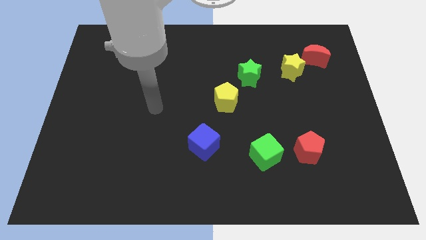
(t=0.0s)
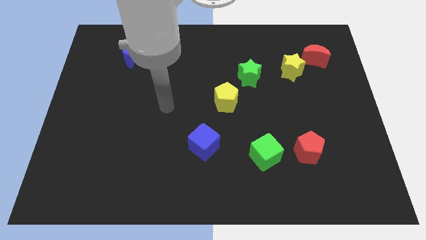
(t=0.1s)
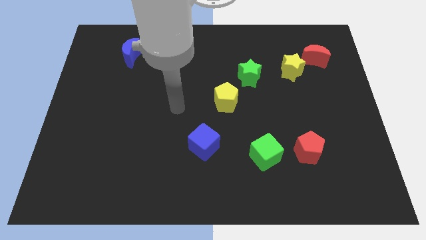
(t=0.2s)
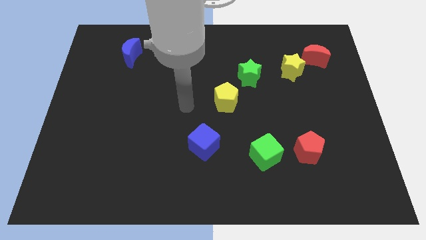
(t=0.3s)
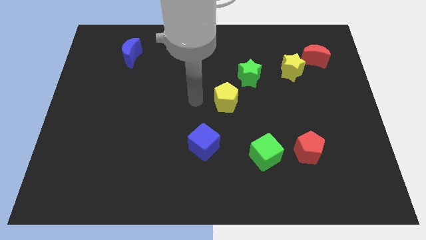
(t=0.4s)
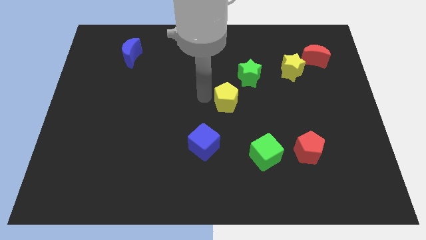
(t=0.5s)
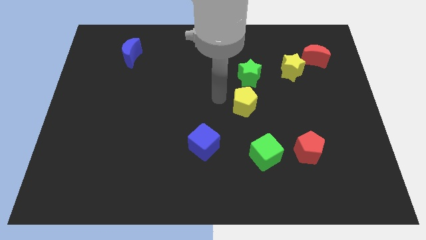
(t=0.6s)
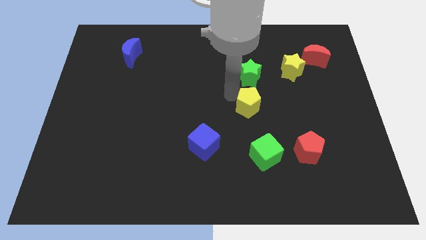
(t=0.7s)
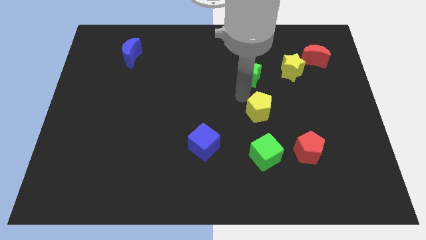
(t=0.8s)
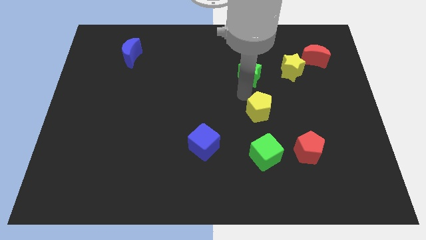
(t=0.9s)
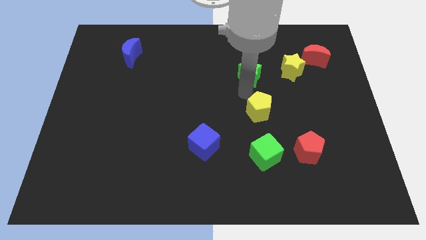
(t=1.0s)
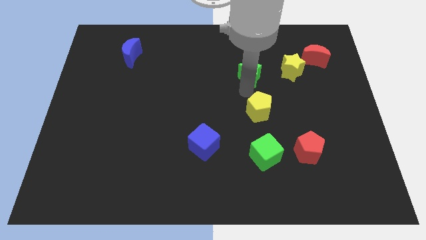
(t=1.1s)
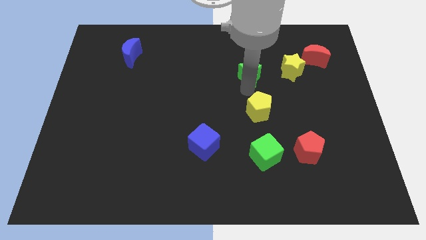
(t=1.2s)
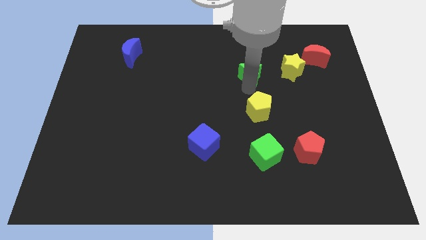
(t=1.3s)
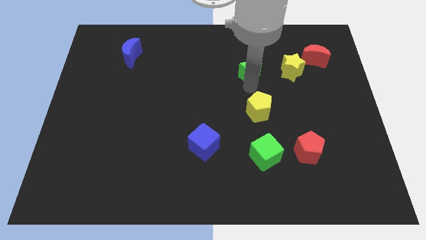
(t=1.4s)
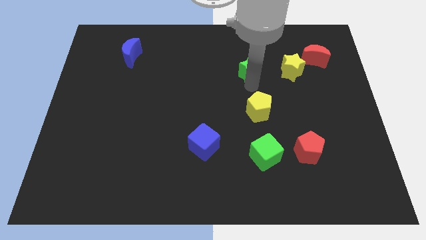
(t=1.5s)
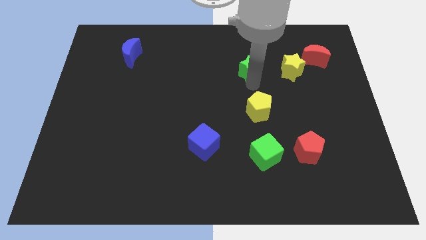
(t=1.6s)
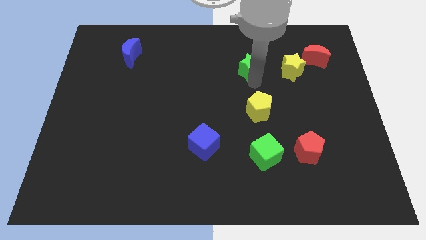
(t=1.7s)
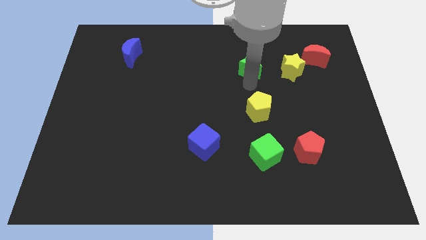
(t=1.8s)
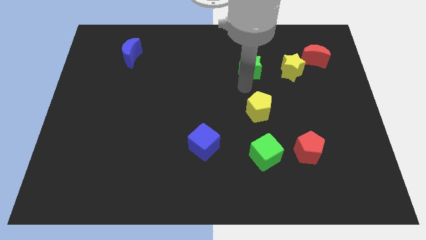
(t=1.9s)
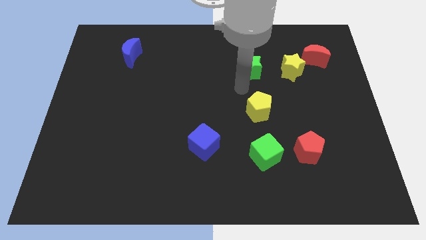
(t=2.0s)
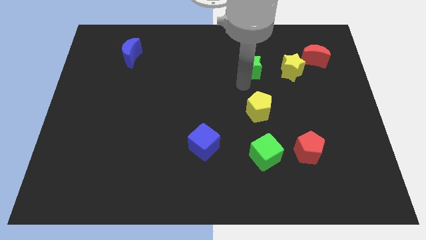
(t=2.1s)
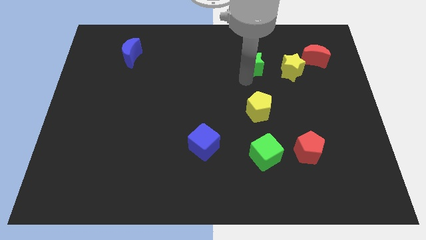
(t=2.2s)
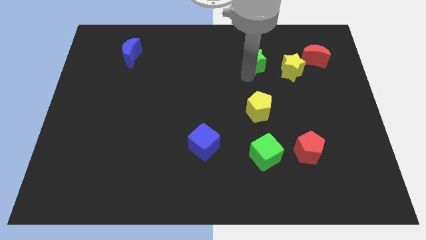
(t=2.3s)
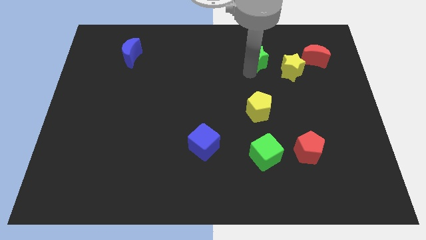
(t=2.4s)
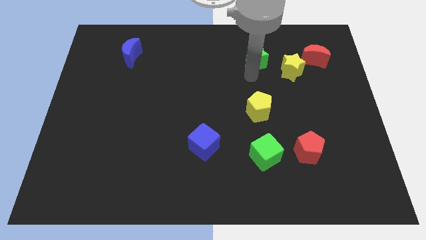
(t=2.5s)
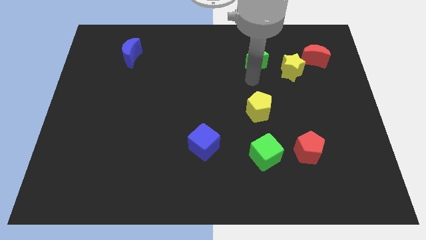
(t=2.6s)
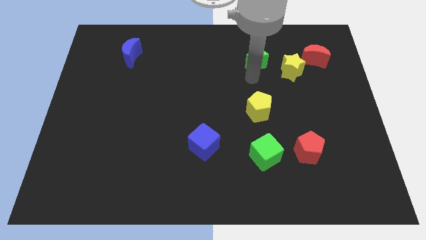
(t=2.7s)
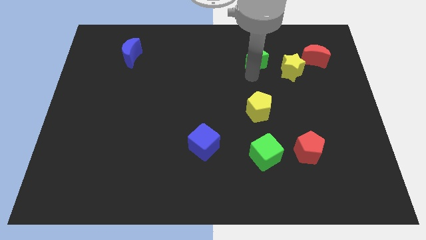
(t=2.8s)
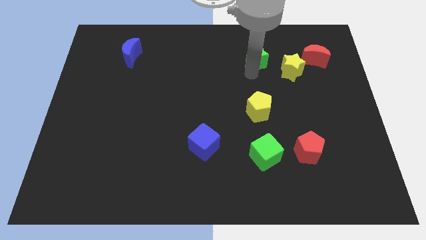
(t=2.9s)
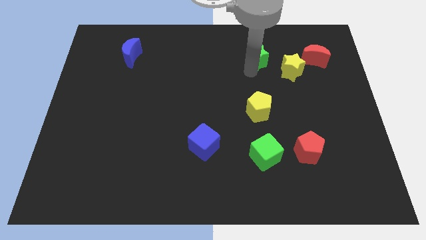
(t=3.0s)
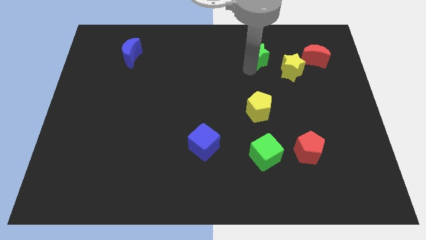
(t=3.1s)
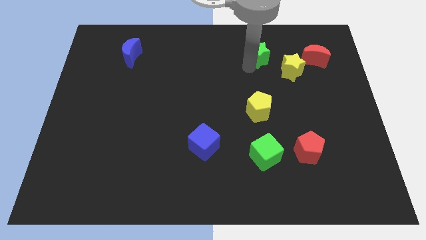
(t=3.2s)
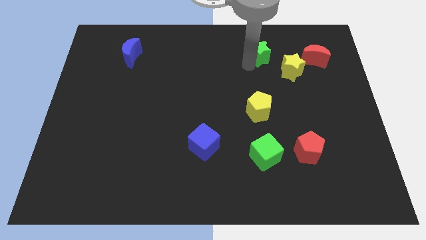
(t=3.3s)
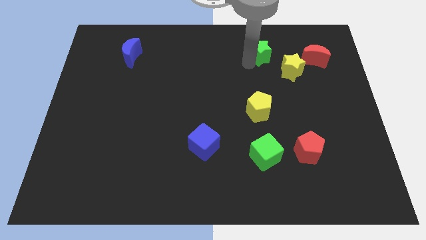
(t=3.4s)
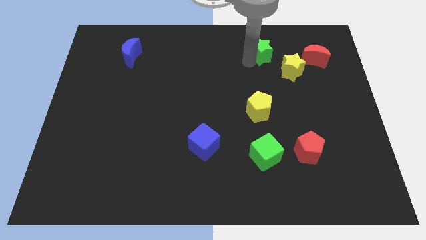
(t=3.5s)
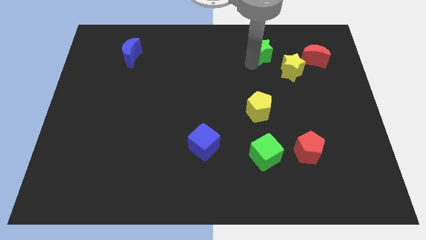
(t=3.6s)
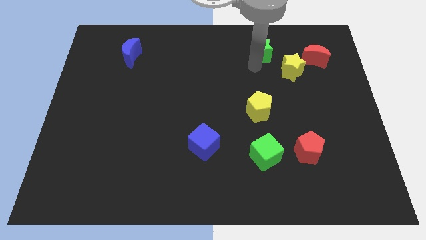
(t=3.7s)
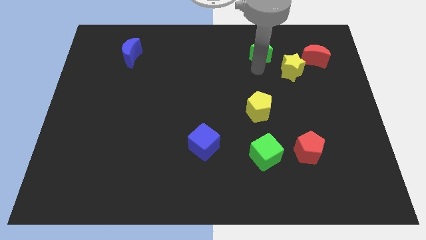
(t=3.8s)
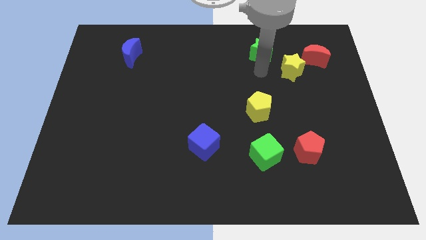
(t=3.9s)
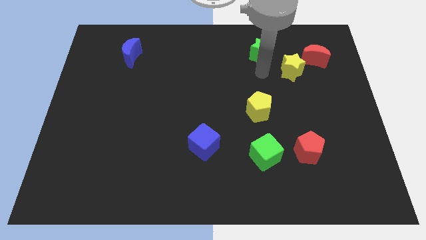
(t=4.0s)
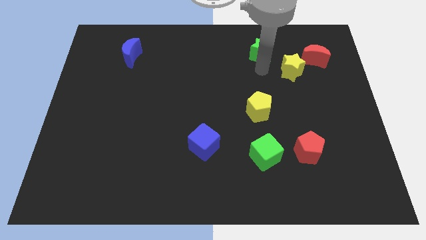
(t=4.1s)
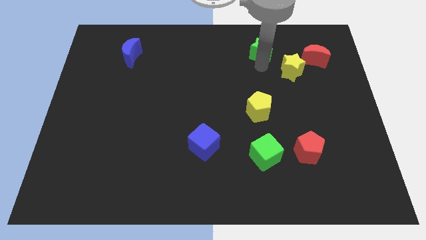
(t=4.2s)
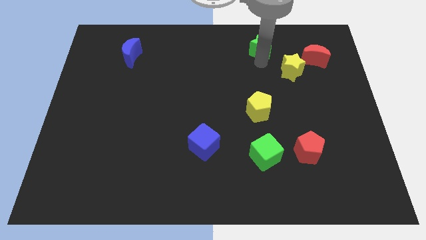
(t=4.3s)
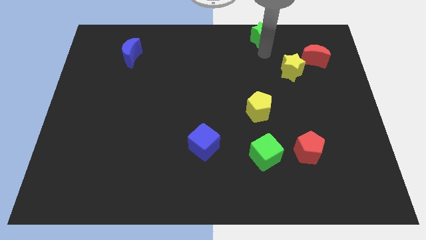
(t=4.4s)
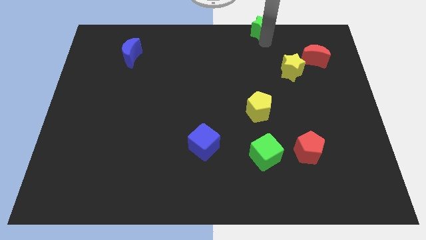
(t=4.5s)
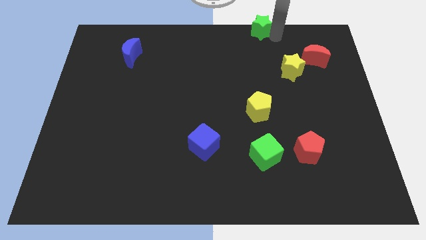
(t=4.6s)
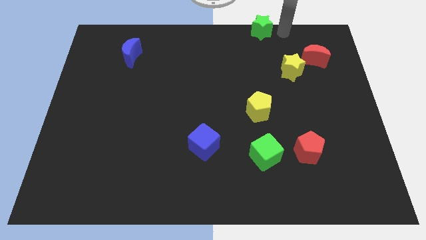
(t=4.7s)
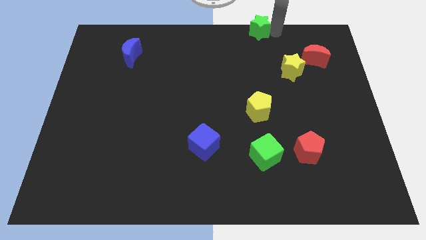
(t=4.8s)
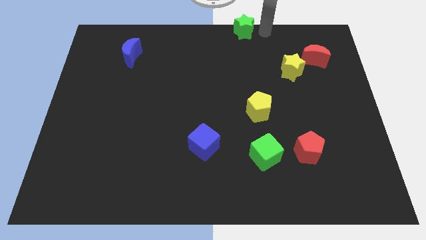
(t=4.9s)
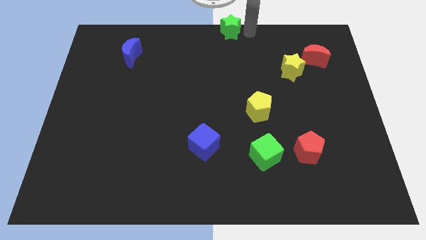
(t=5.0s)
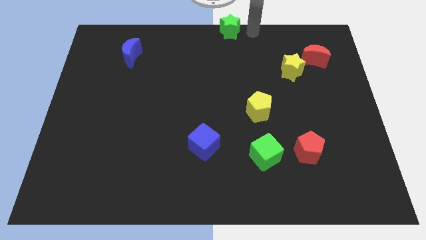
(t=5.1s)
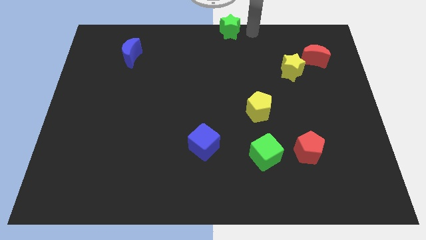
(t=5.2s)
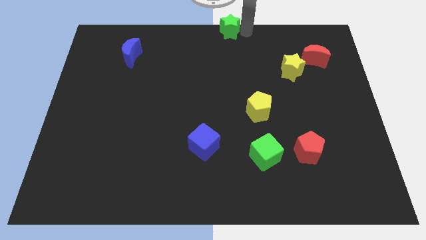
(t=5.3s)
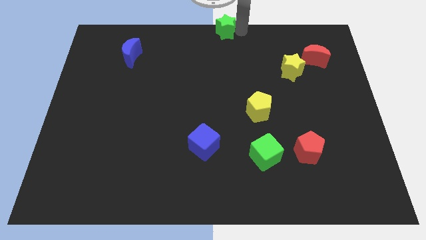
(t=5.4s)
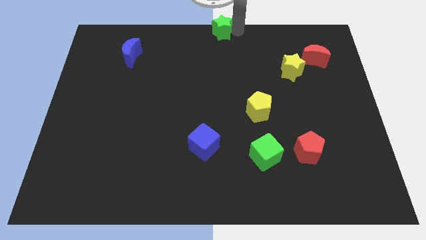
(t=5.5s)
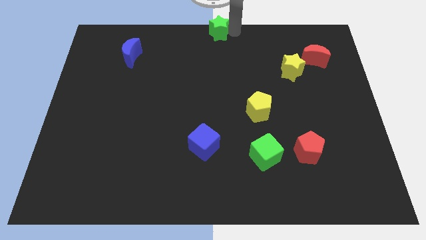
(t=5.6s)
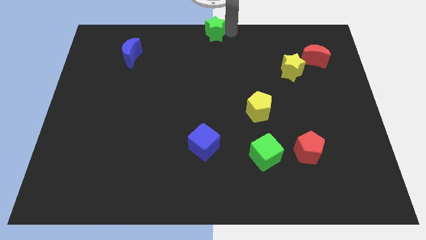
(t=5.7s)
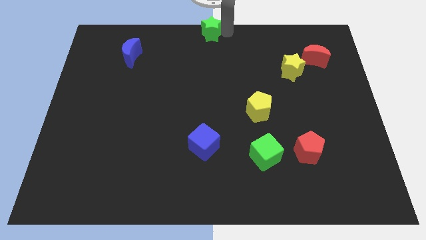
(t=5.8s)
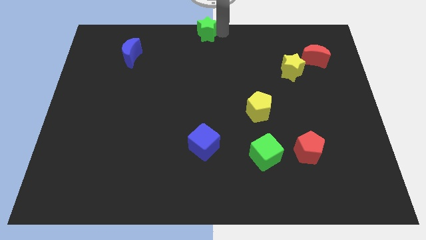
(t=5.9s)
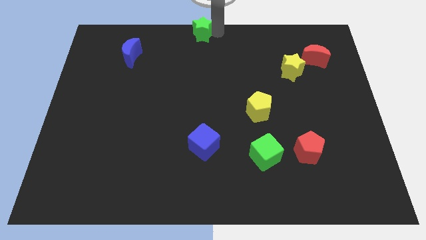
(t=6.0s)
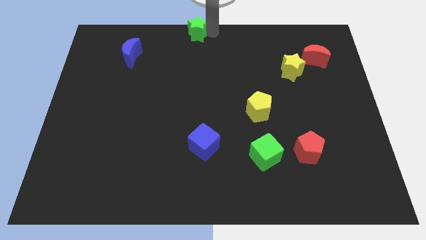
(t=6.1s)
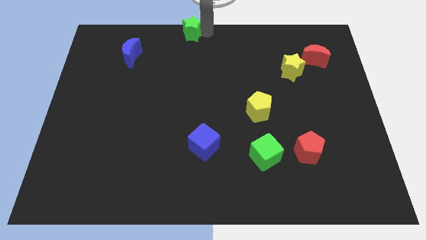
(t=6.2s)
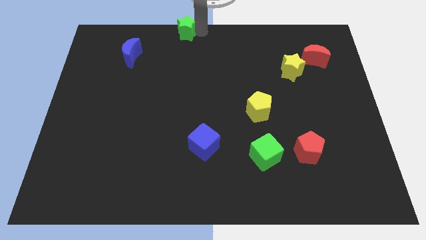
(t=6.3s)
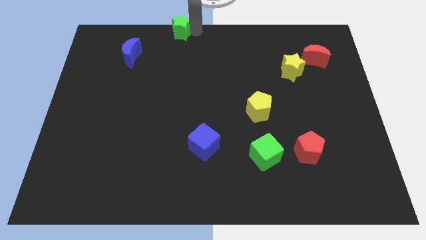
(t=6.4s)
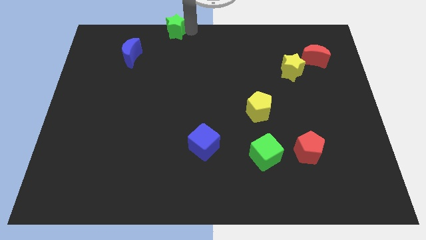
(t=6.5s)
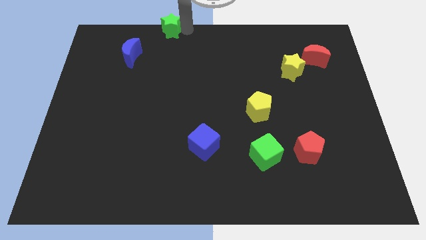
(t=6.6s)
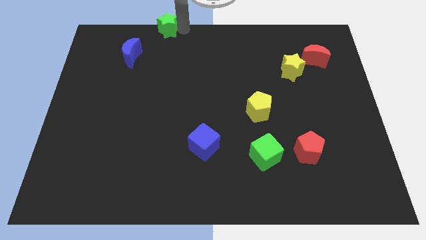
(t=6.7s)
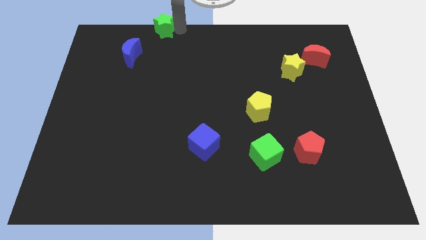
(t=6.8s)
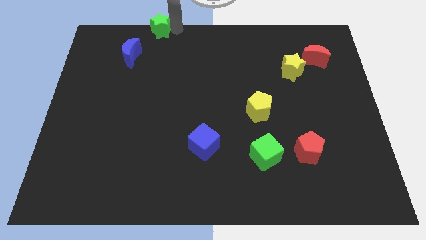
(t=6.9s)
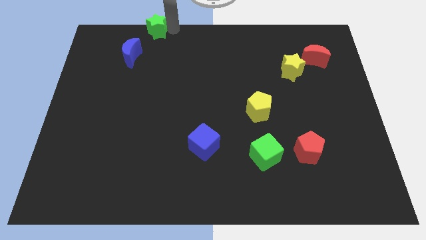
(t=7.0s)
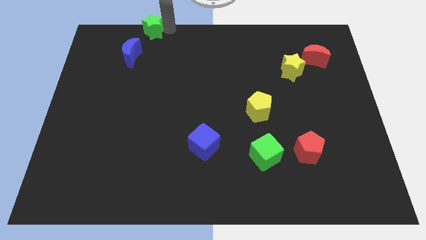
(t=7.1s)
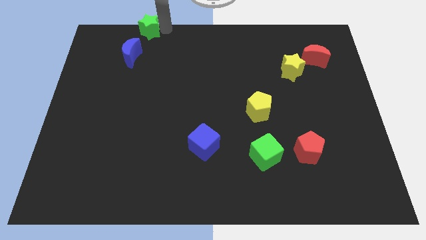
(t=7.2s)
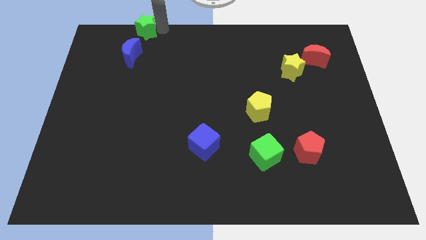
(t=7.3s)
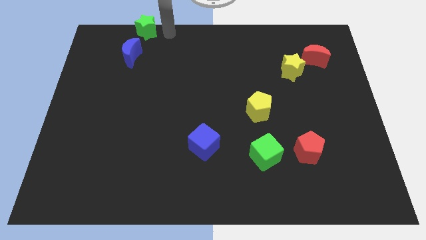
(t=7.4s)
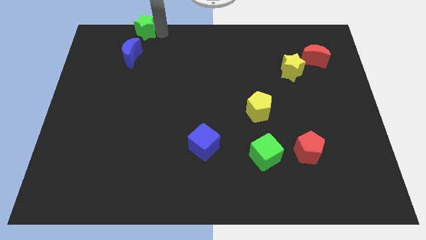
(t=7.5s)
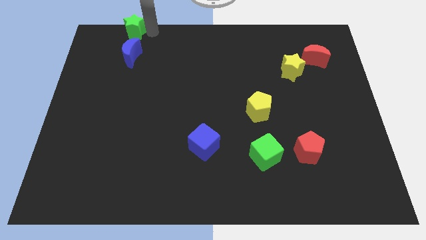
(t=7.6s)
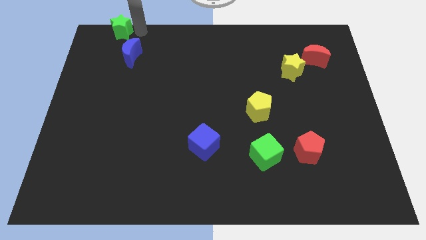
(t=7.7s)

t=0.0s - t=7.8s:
move the green star to the top left corner
